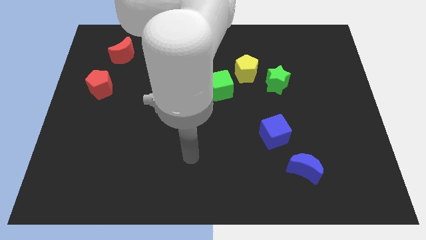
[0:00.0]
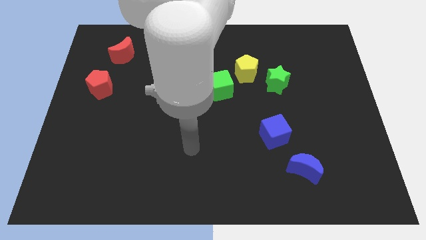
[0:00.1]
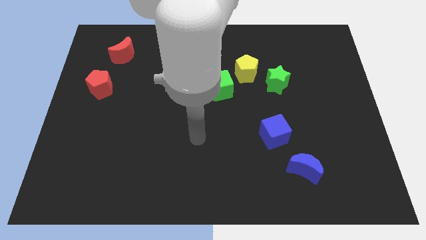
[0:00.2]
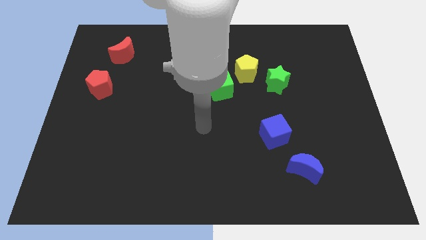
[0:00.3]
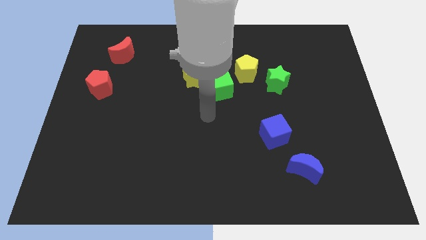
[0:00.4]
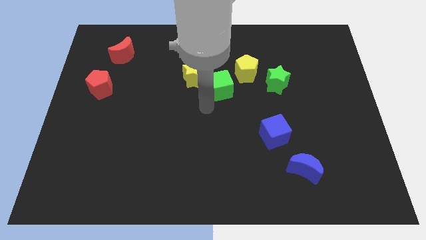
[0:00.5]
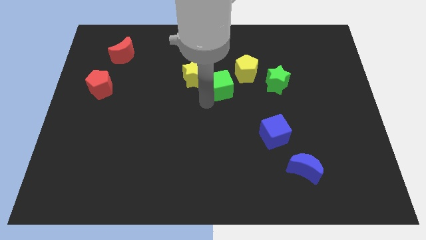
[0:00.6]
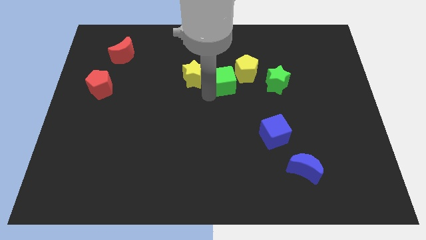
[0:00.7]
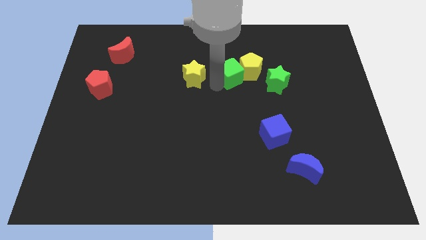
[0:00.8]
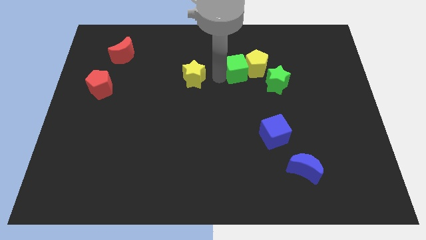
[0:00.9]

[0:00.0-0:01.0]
pull the yellow star apart from the green cube

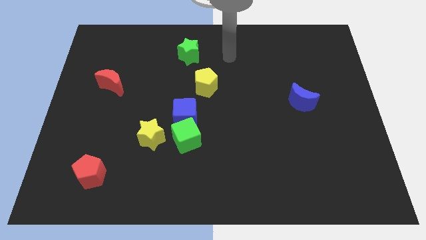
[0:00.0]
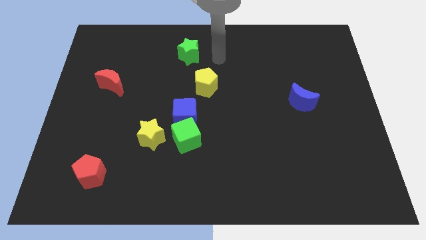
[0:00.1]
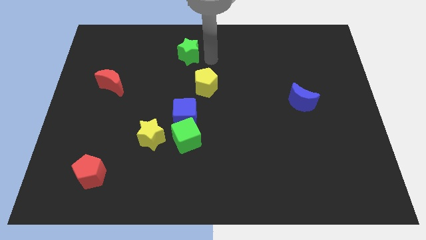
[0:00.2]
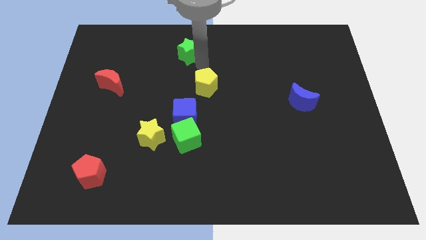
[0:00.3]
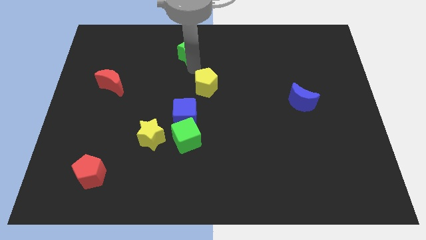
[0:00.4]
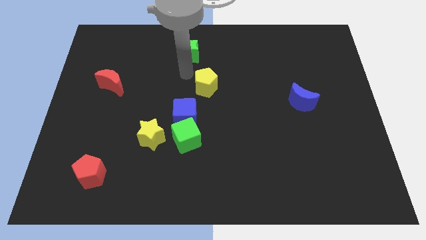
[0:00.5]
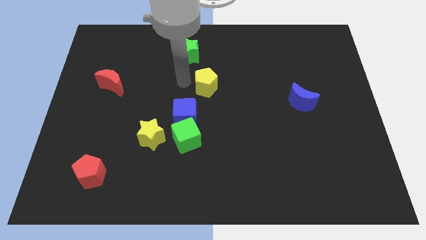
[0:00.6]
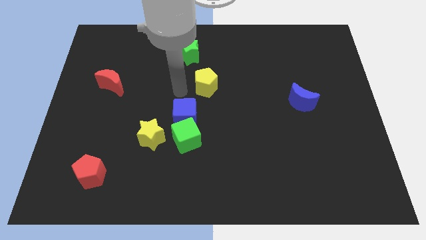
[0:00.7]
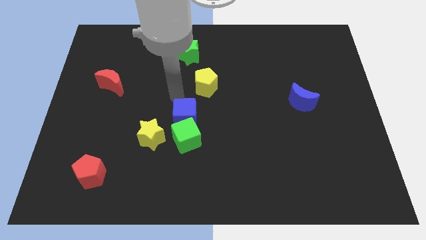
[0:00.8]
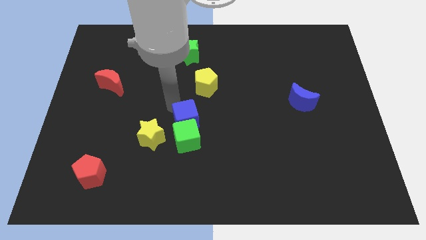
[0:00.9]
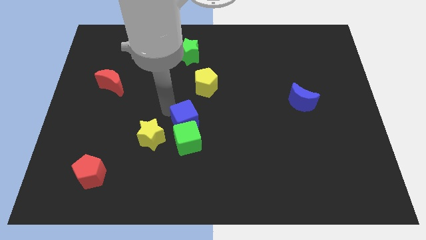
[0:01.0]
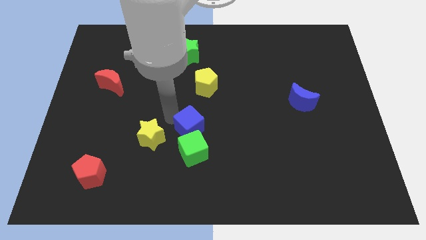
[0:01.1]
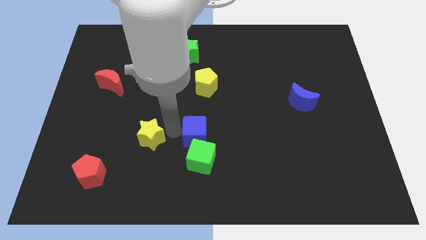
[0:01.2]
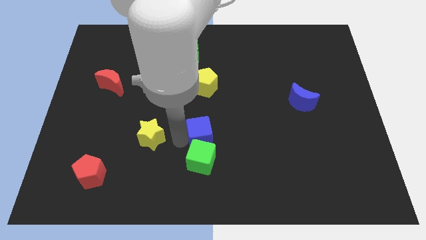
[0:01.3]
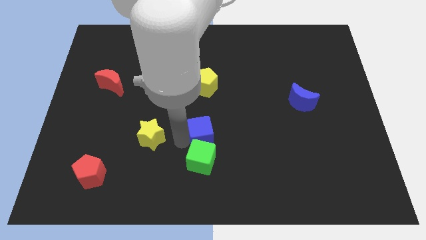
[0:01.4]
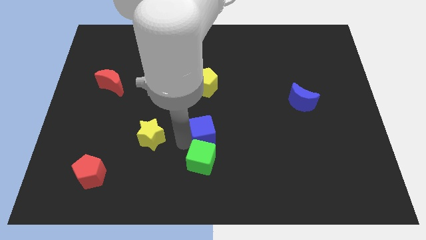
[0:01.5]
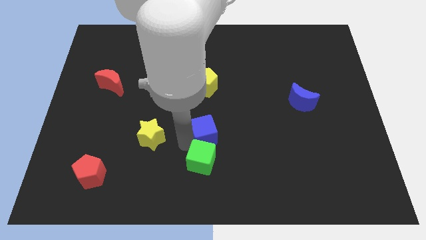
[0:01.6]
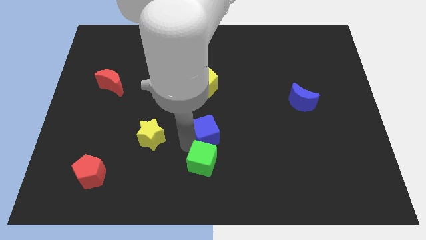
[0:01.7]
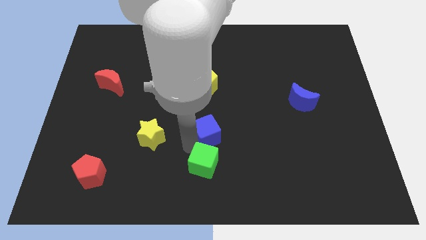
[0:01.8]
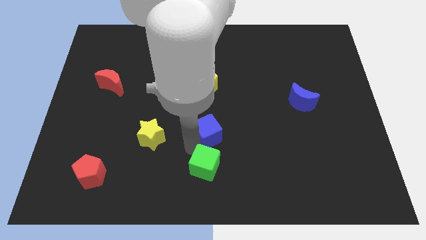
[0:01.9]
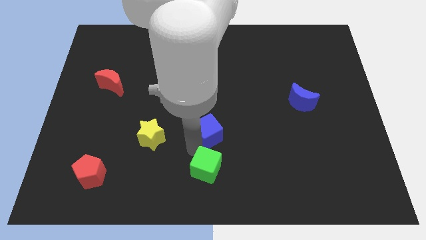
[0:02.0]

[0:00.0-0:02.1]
move the green cube away from the blue cube and yellow star

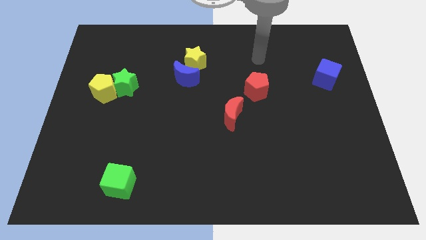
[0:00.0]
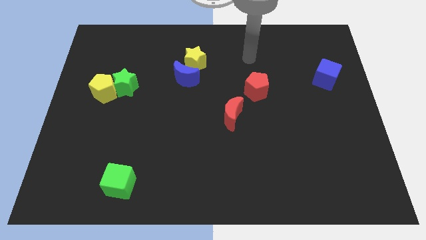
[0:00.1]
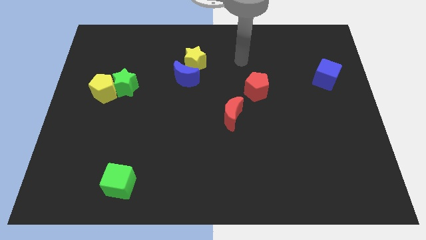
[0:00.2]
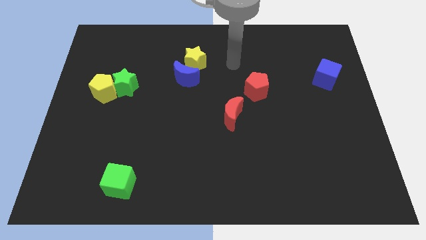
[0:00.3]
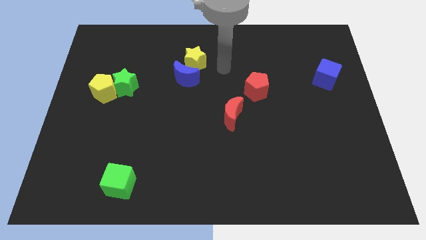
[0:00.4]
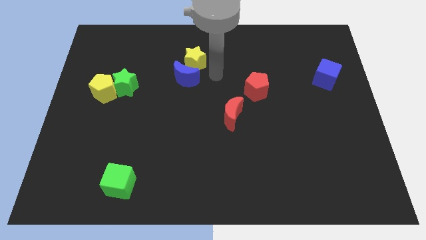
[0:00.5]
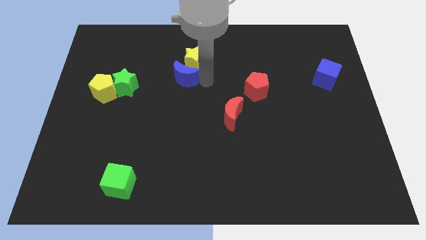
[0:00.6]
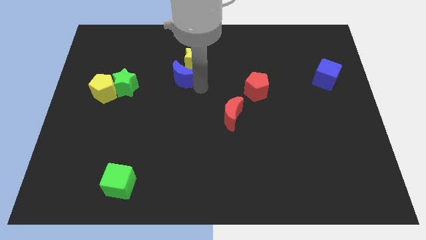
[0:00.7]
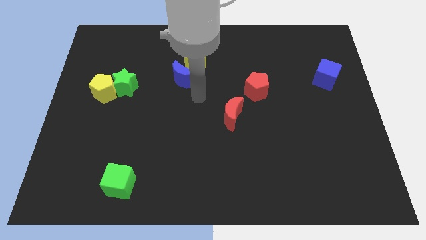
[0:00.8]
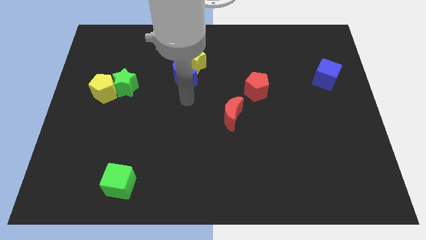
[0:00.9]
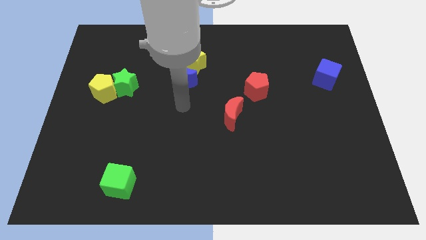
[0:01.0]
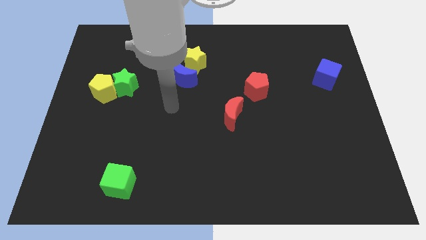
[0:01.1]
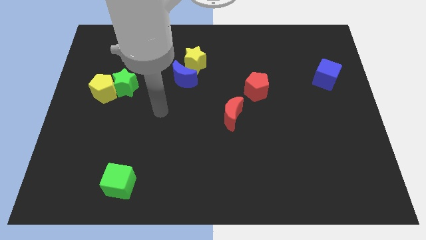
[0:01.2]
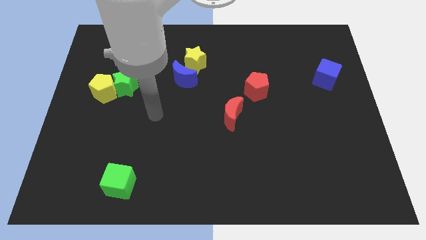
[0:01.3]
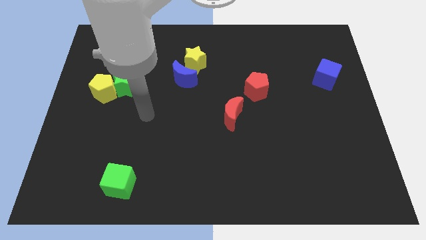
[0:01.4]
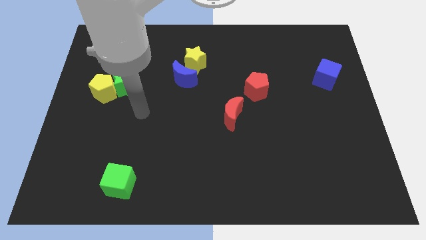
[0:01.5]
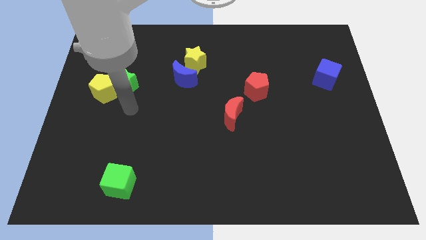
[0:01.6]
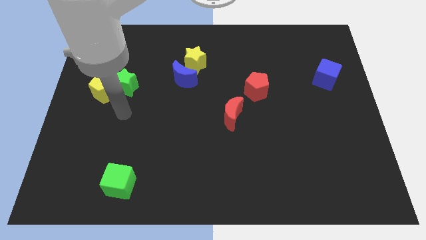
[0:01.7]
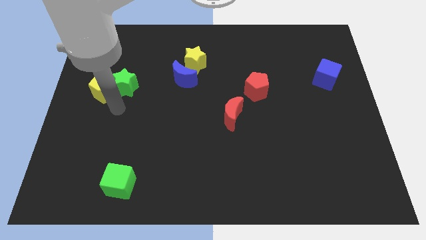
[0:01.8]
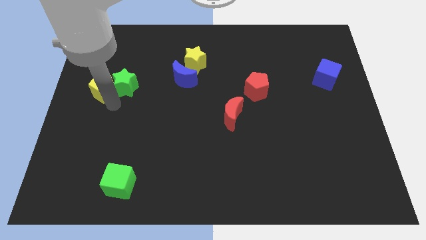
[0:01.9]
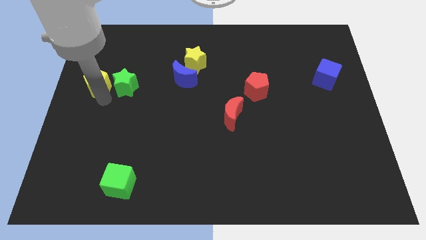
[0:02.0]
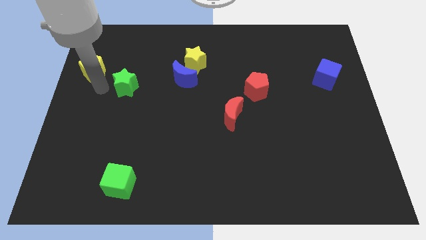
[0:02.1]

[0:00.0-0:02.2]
separate the green star from the yellow pentagon

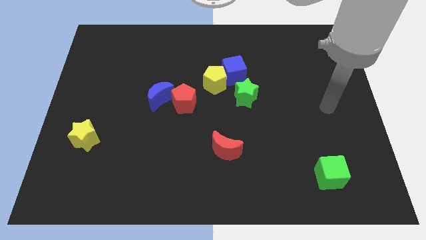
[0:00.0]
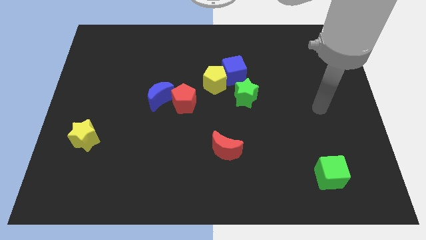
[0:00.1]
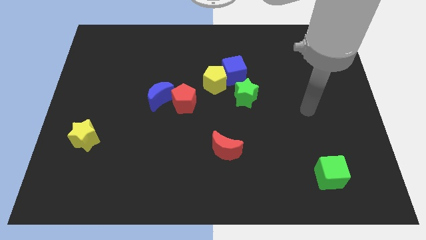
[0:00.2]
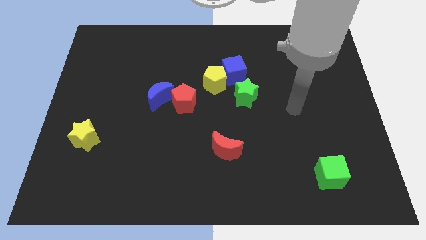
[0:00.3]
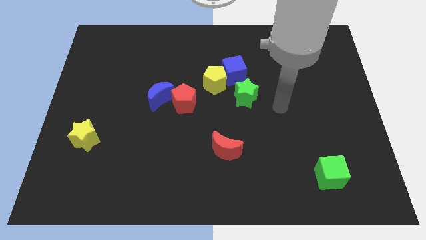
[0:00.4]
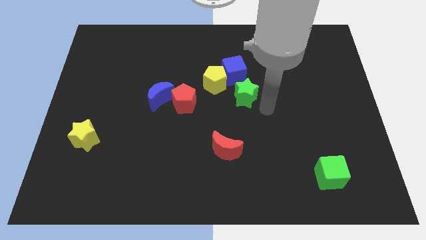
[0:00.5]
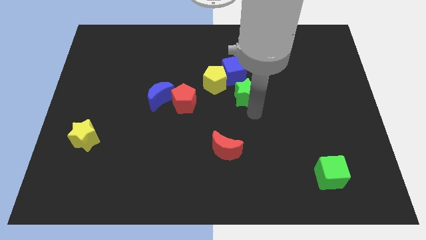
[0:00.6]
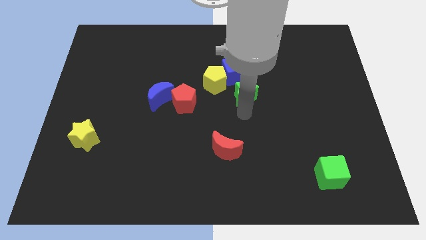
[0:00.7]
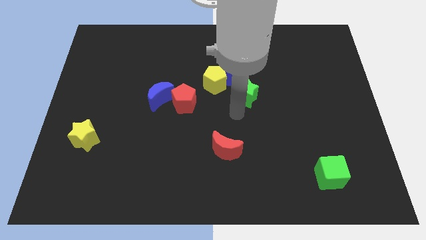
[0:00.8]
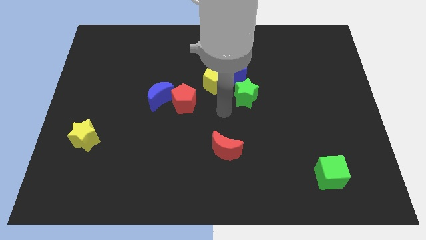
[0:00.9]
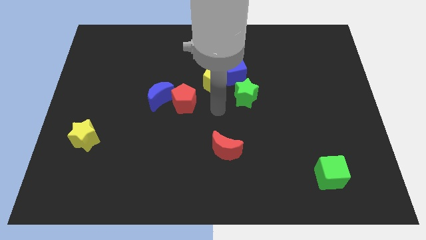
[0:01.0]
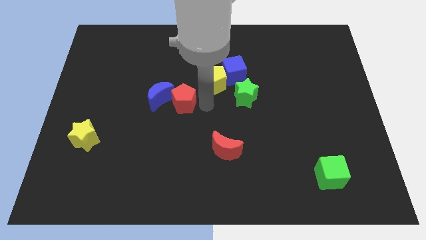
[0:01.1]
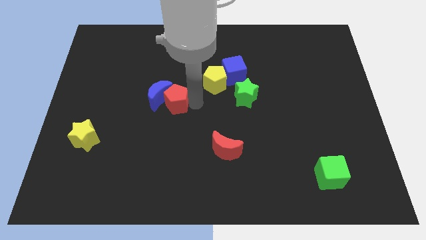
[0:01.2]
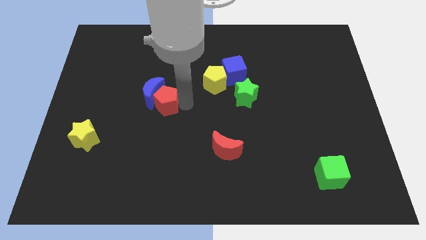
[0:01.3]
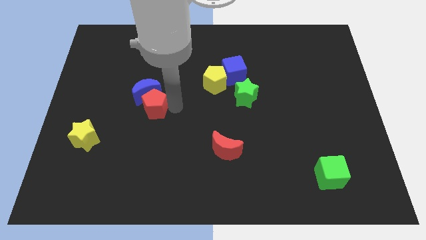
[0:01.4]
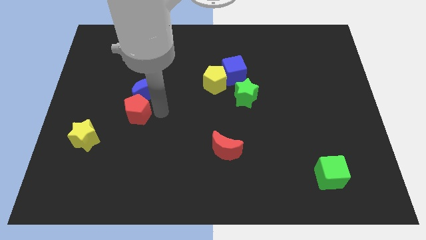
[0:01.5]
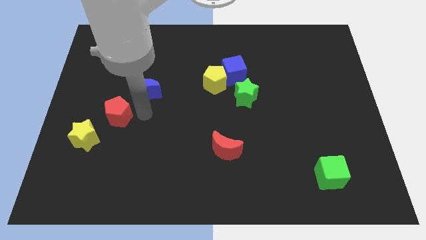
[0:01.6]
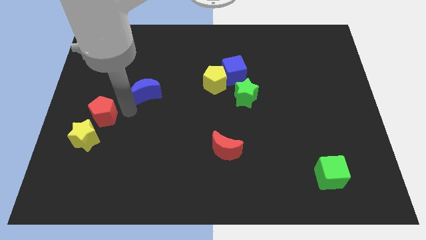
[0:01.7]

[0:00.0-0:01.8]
pull the blue moon apart from the red pentagon

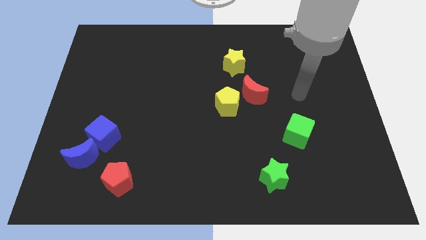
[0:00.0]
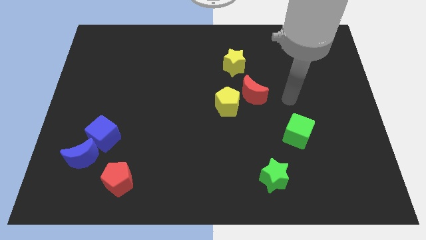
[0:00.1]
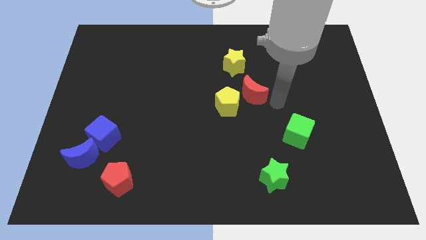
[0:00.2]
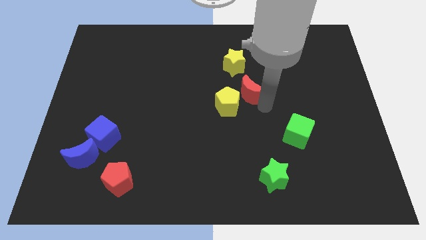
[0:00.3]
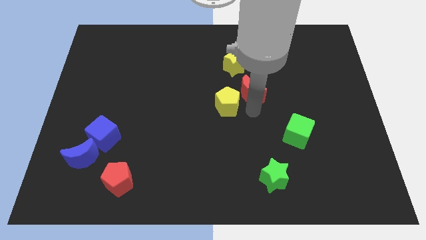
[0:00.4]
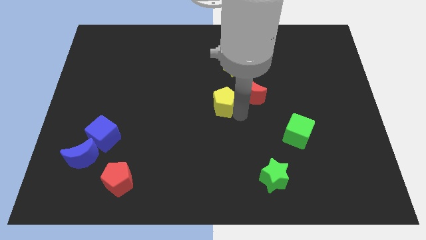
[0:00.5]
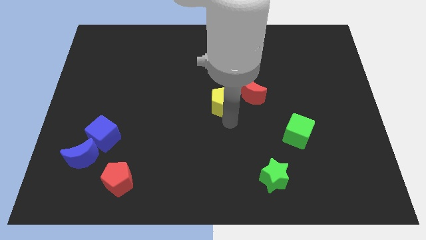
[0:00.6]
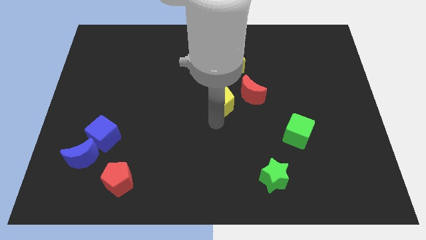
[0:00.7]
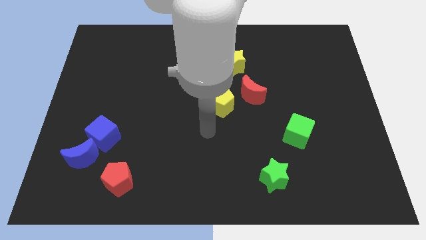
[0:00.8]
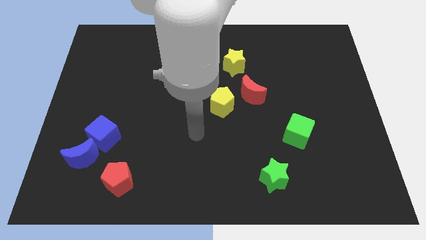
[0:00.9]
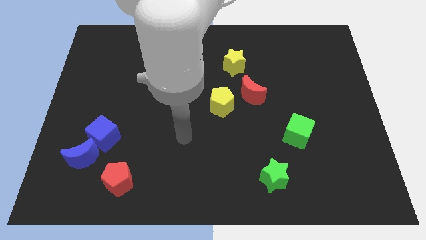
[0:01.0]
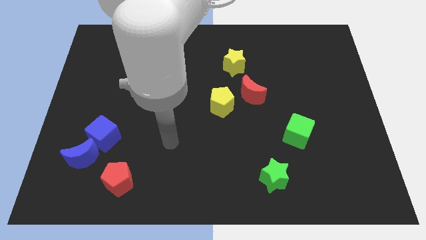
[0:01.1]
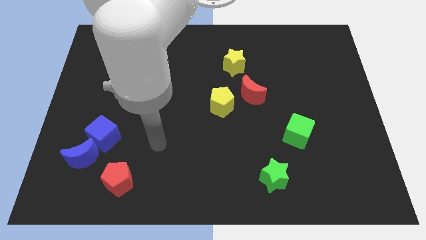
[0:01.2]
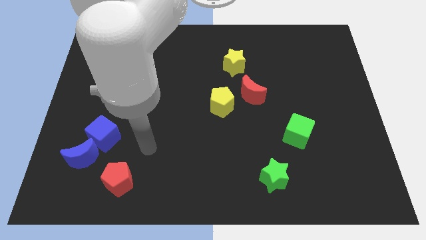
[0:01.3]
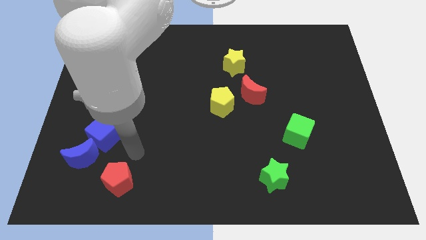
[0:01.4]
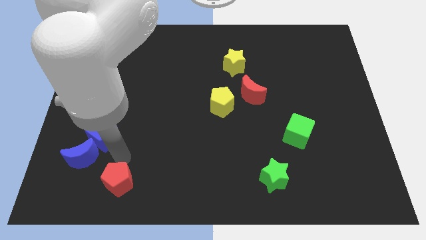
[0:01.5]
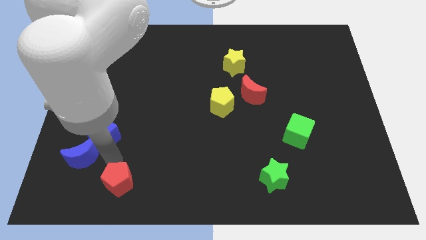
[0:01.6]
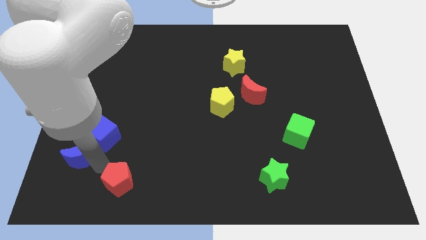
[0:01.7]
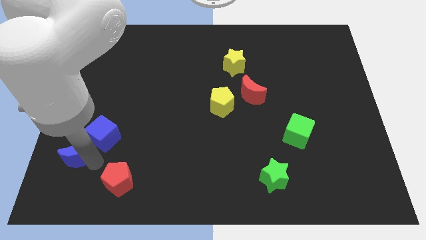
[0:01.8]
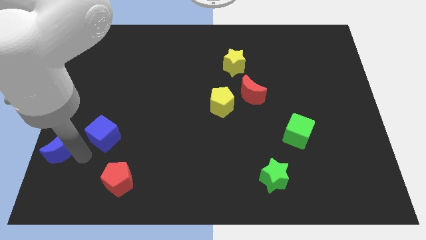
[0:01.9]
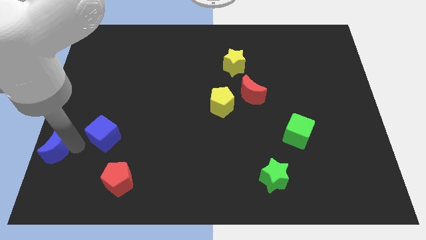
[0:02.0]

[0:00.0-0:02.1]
move the blue cube away from the blue moon
